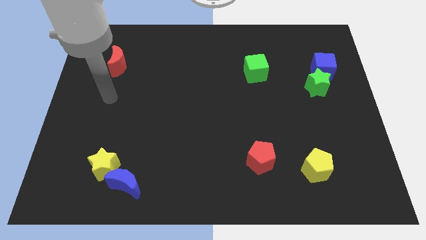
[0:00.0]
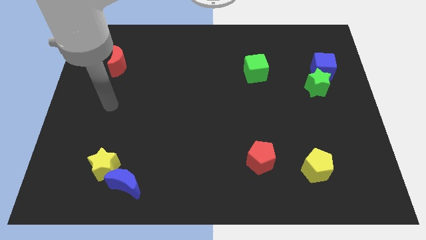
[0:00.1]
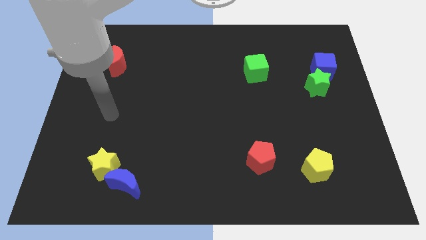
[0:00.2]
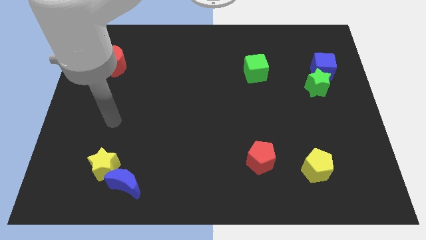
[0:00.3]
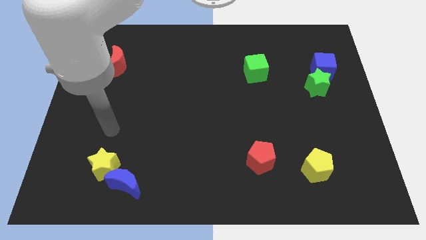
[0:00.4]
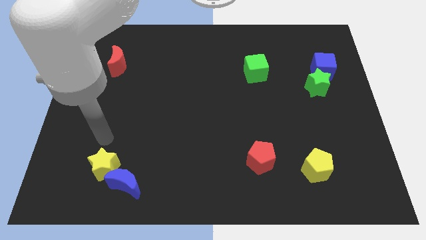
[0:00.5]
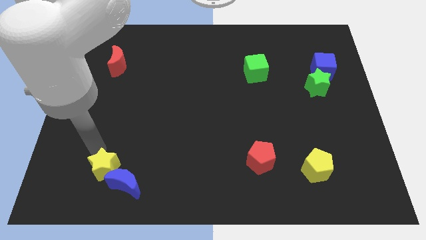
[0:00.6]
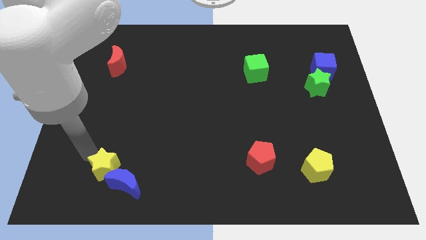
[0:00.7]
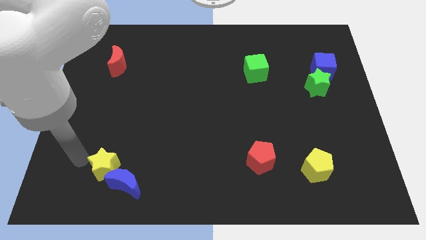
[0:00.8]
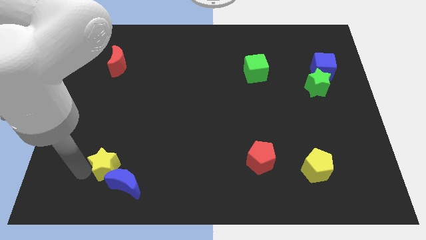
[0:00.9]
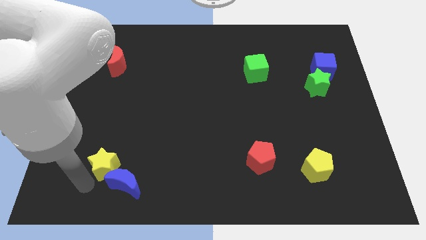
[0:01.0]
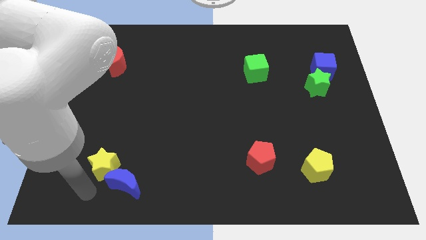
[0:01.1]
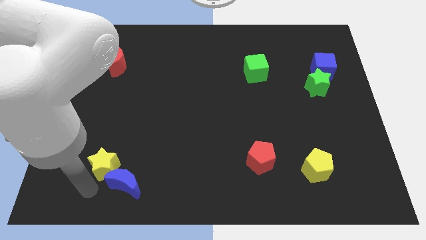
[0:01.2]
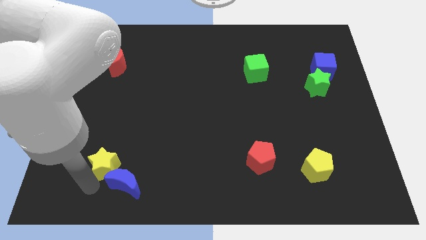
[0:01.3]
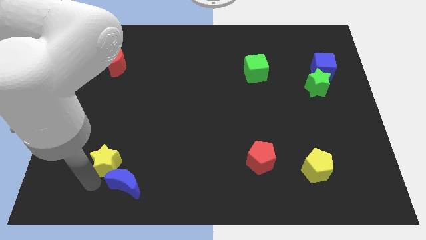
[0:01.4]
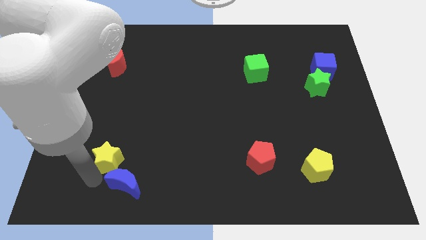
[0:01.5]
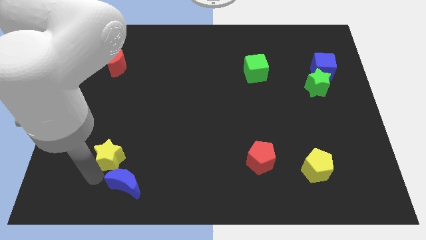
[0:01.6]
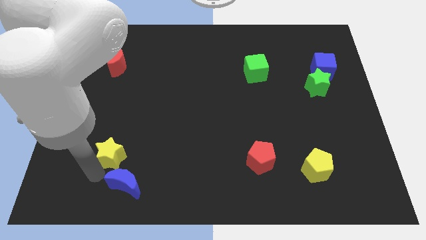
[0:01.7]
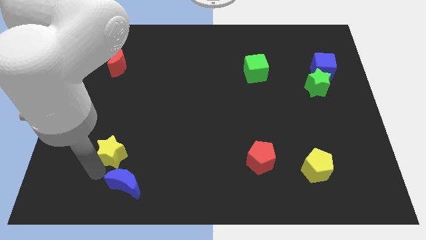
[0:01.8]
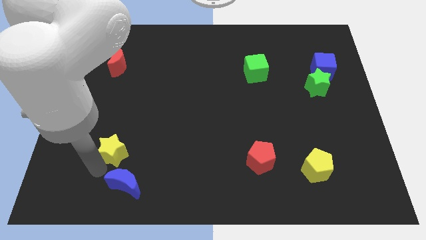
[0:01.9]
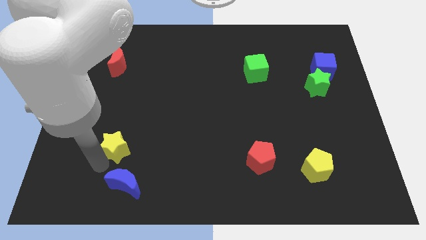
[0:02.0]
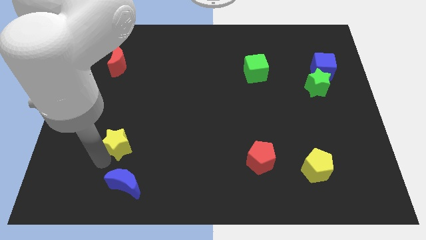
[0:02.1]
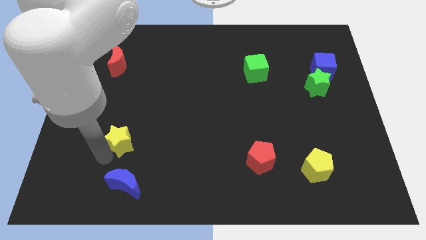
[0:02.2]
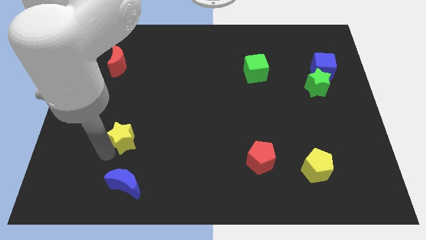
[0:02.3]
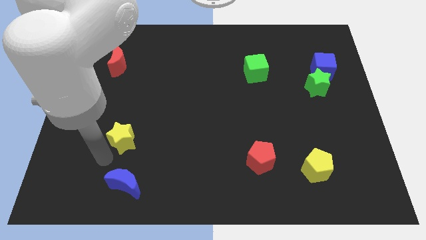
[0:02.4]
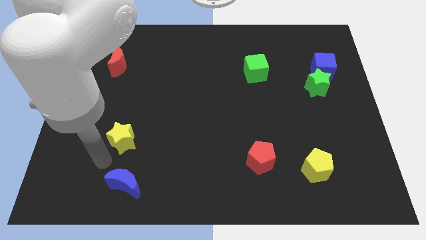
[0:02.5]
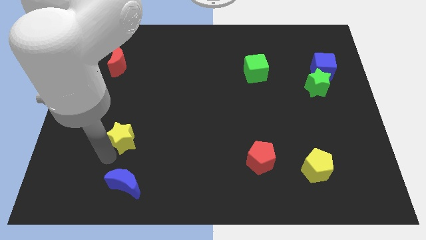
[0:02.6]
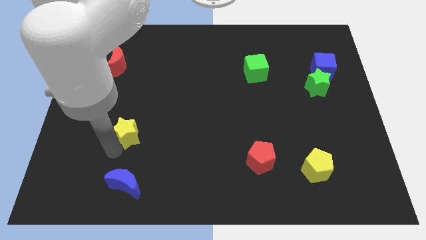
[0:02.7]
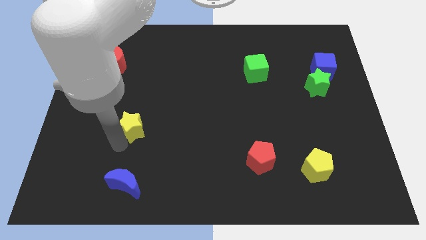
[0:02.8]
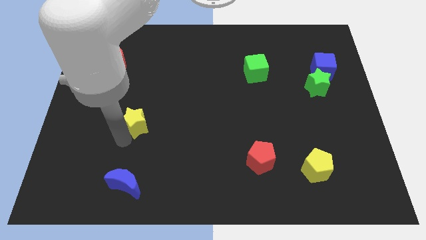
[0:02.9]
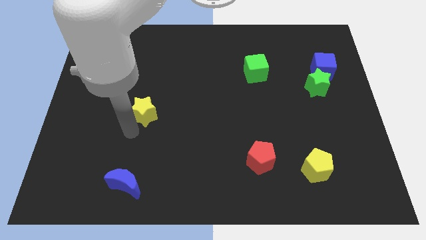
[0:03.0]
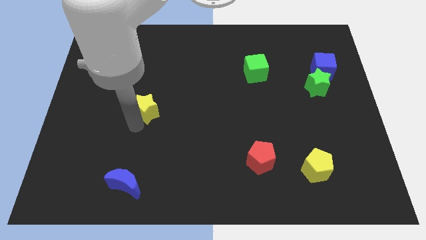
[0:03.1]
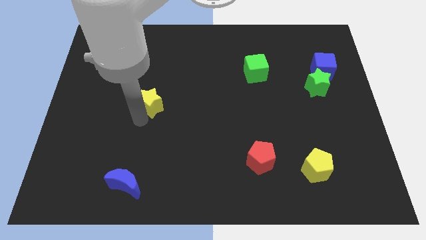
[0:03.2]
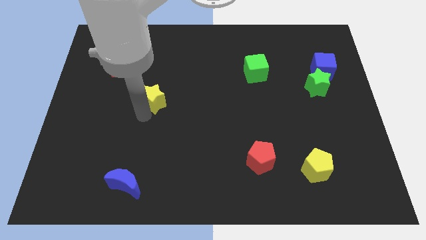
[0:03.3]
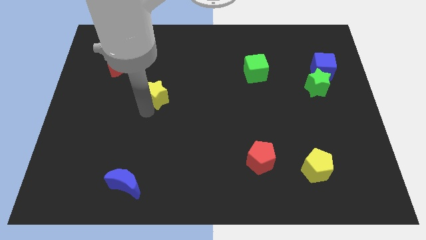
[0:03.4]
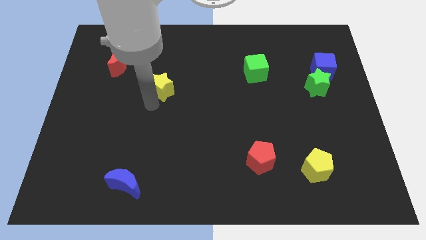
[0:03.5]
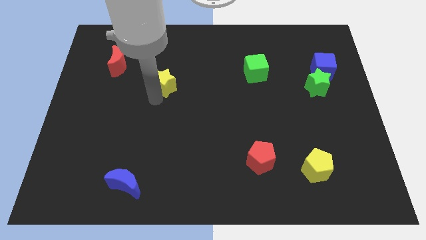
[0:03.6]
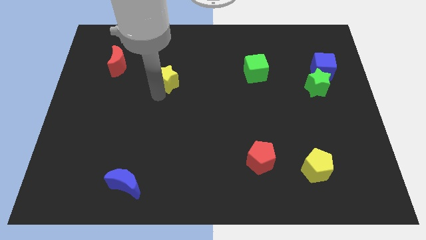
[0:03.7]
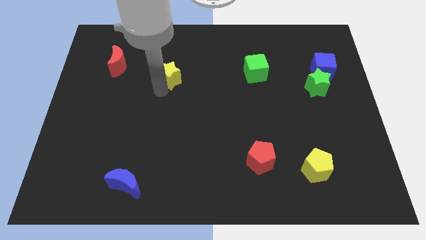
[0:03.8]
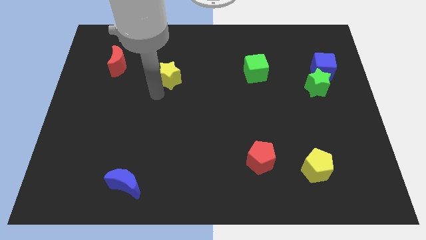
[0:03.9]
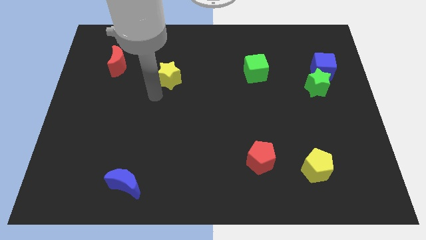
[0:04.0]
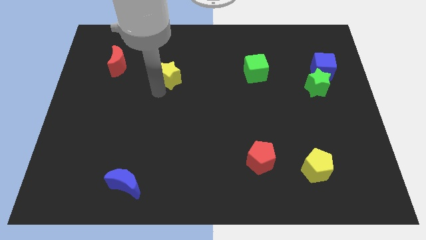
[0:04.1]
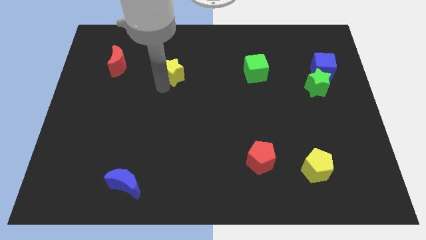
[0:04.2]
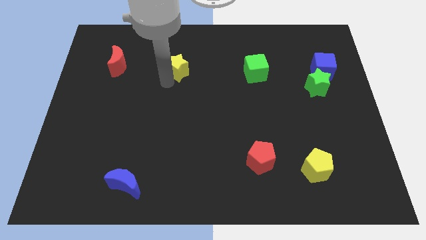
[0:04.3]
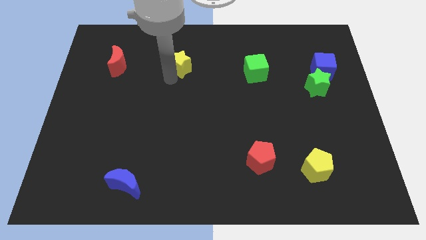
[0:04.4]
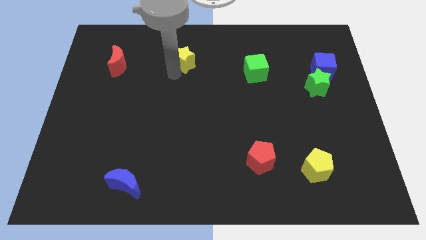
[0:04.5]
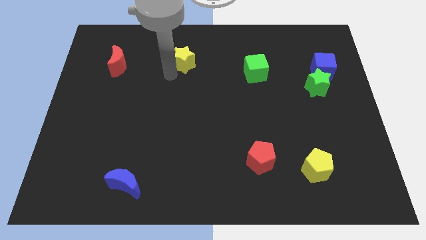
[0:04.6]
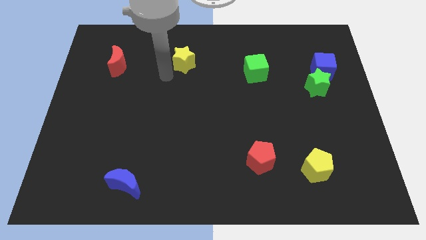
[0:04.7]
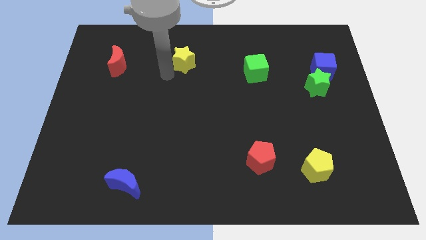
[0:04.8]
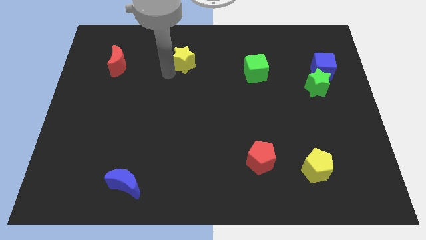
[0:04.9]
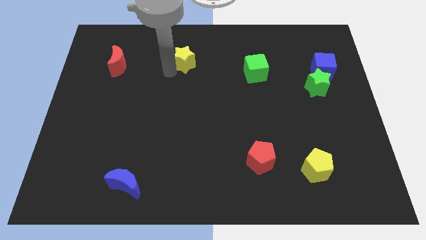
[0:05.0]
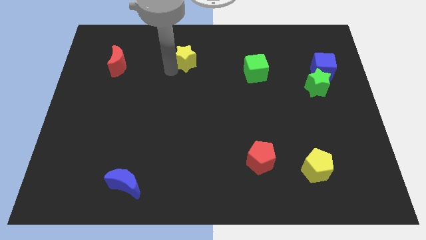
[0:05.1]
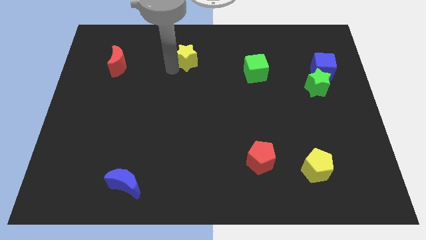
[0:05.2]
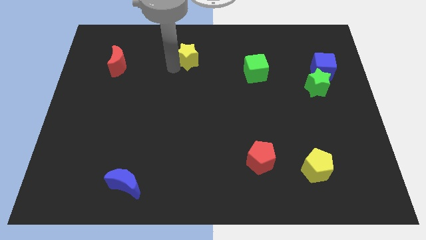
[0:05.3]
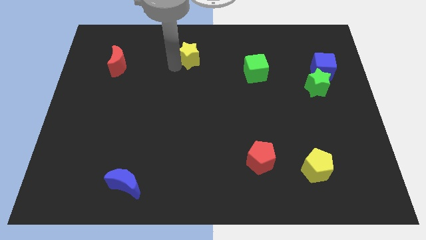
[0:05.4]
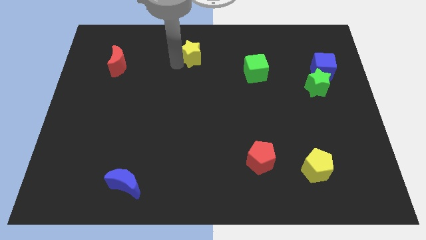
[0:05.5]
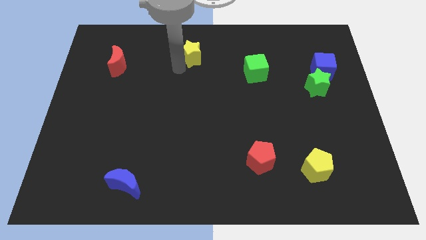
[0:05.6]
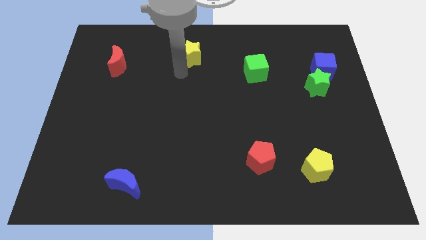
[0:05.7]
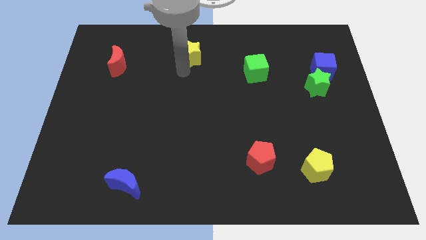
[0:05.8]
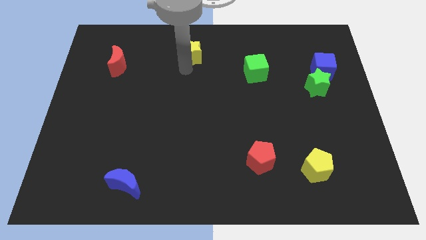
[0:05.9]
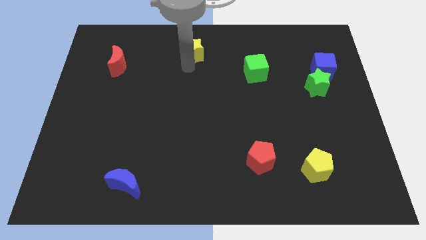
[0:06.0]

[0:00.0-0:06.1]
slide the yellow star to the top
